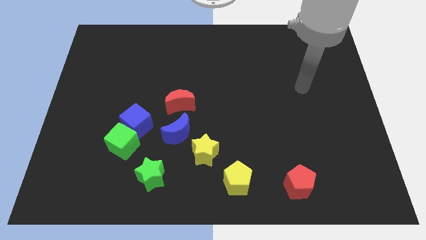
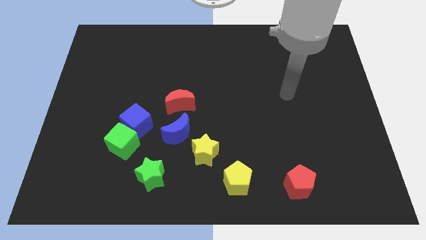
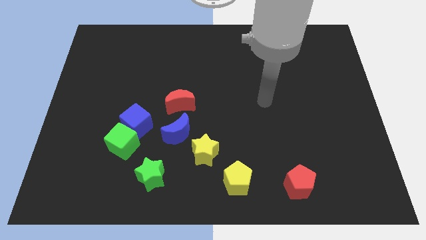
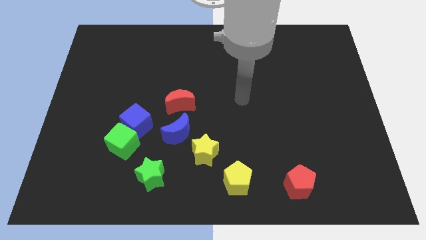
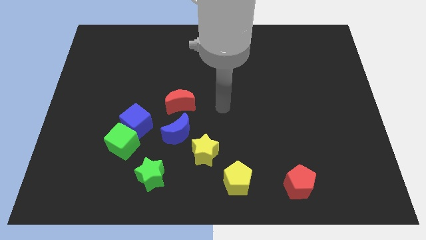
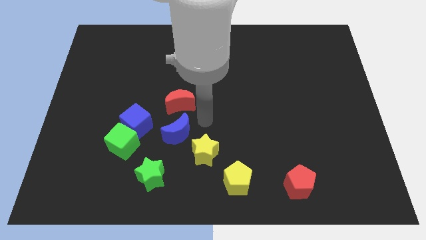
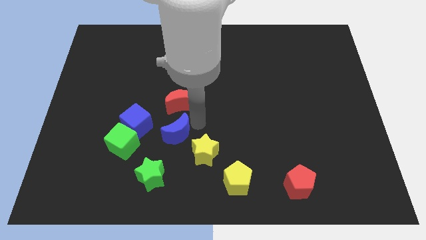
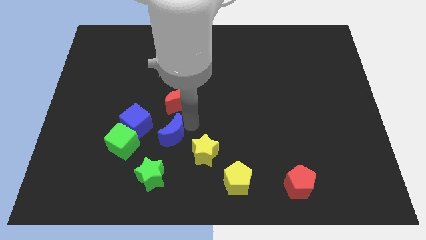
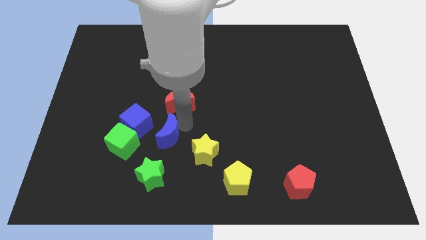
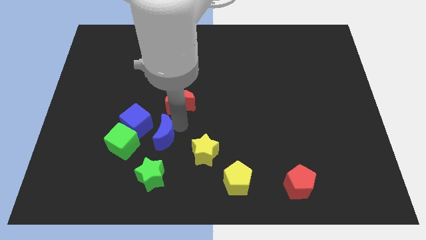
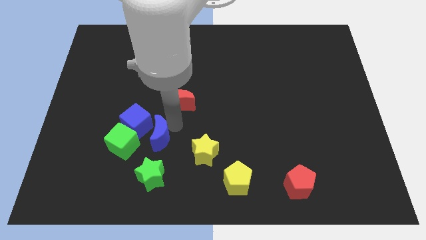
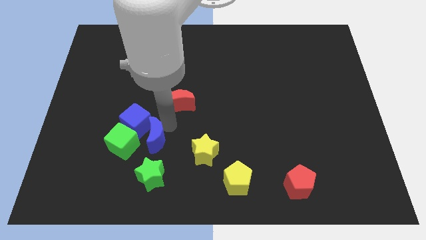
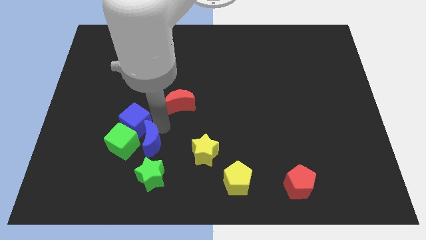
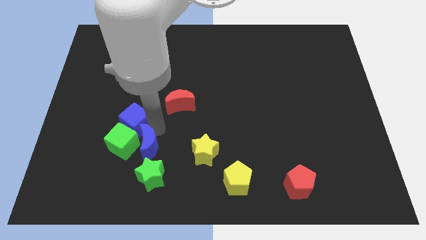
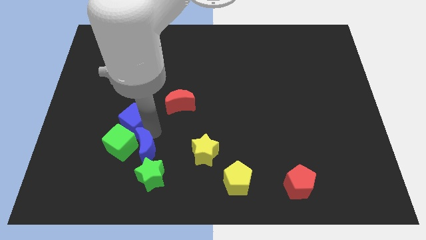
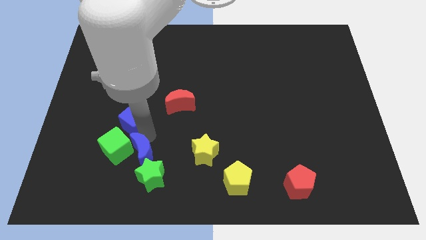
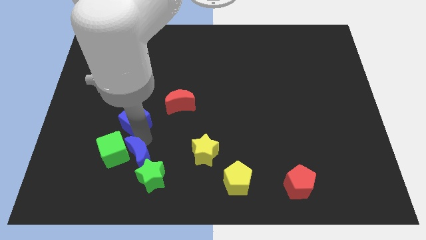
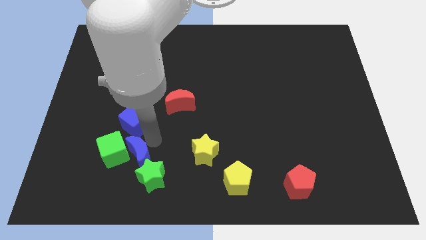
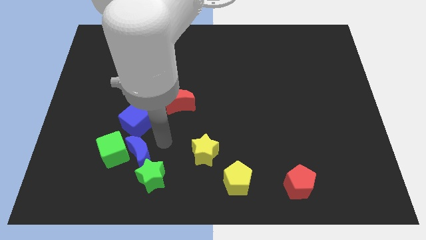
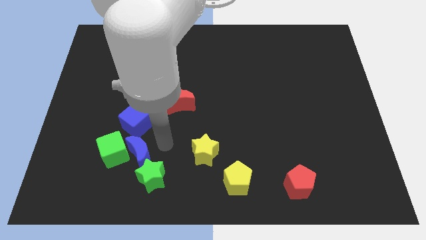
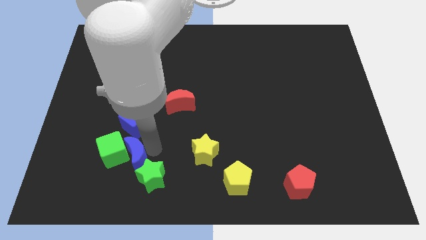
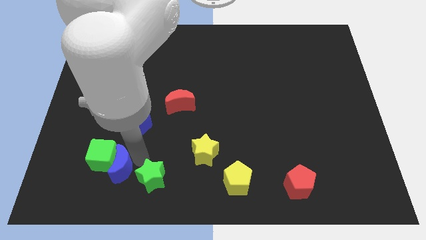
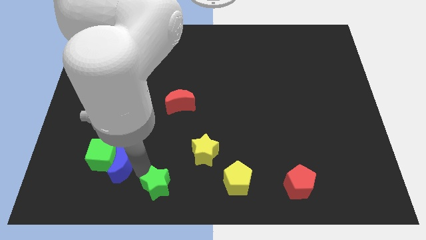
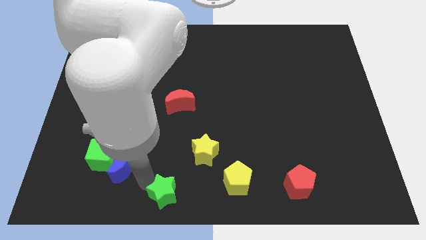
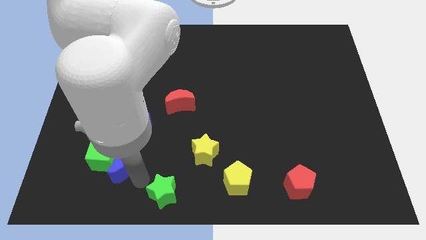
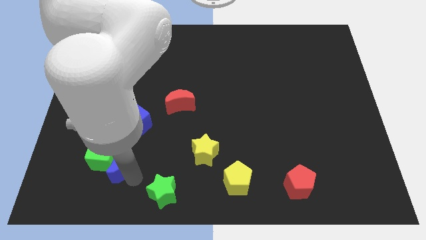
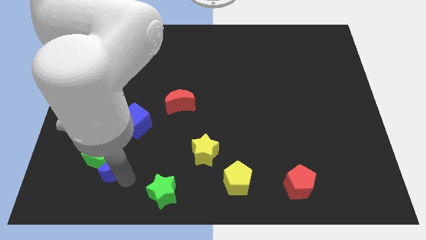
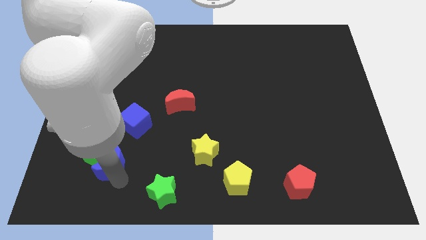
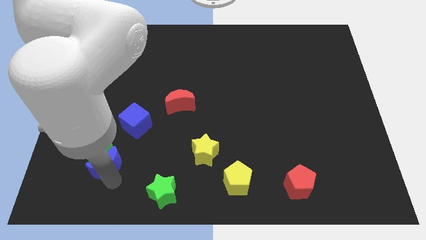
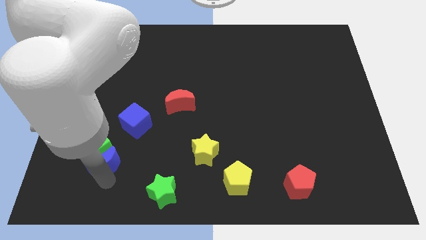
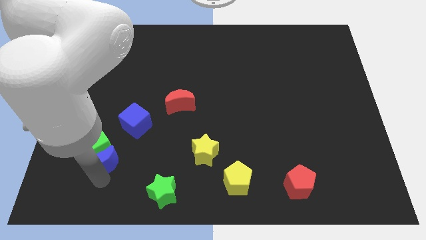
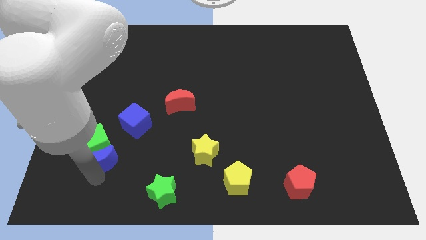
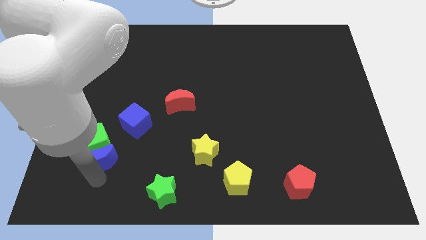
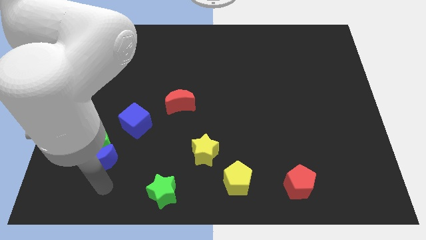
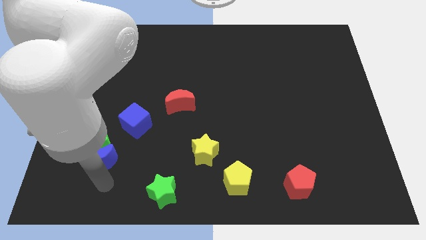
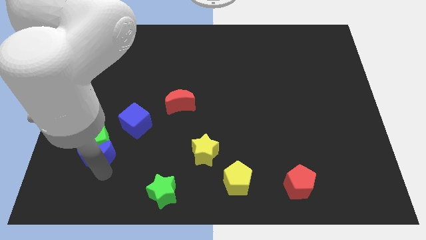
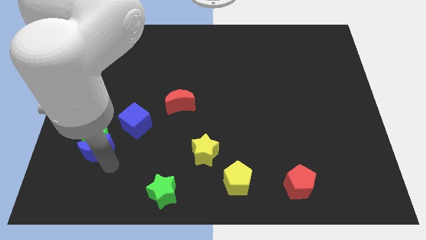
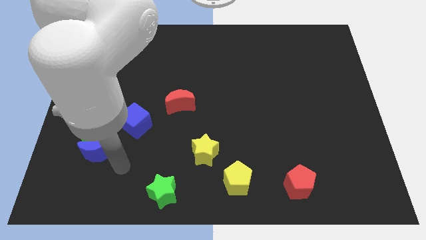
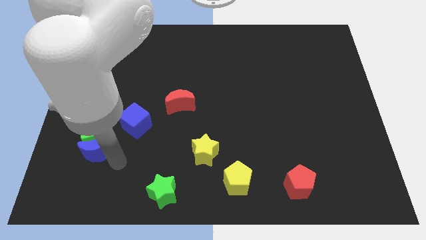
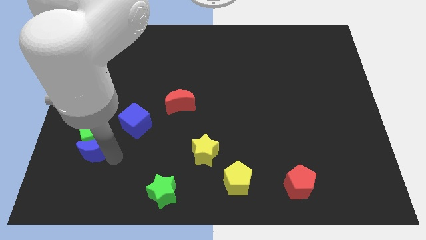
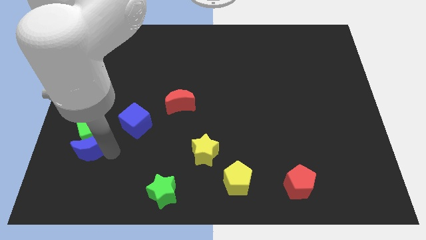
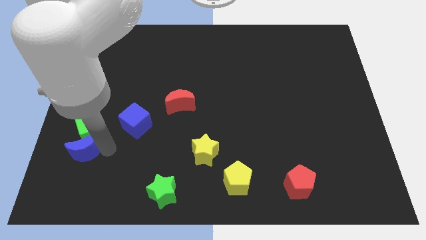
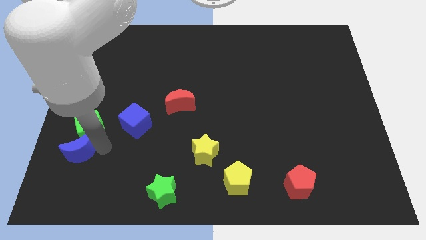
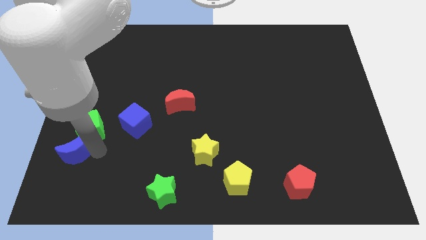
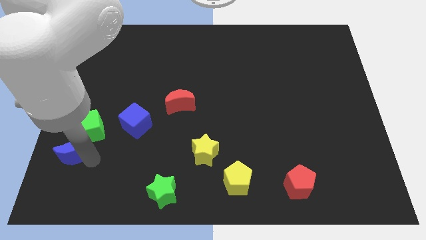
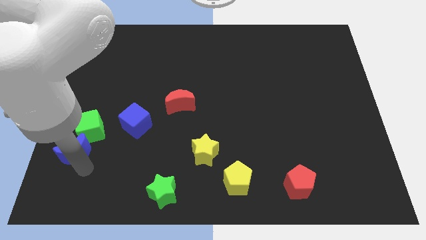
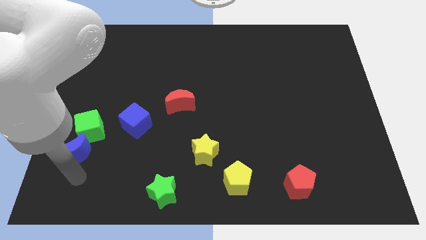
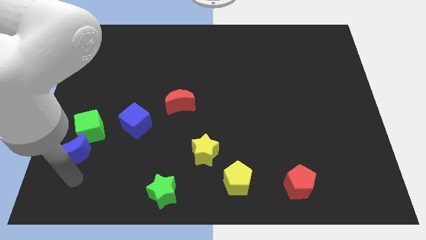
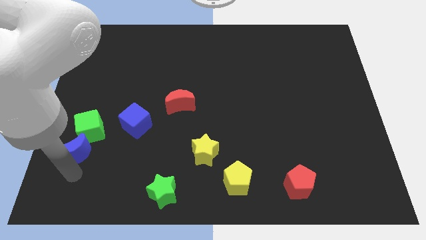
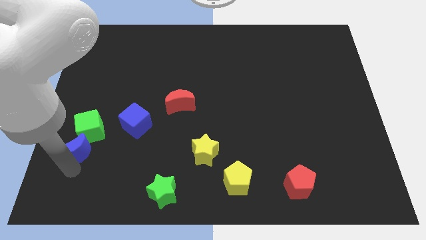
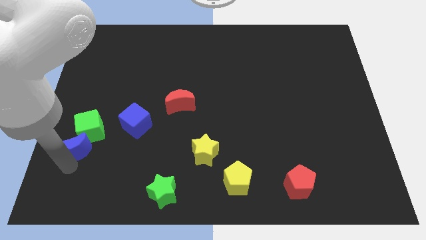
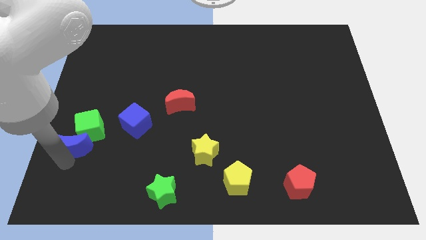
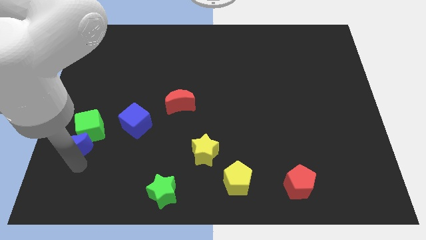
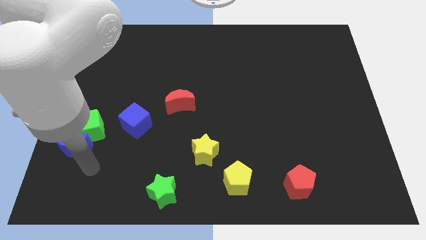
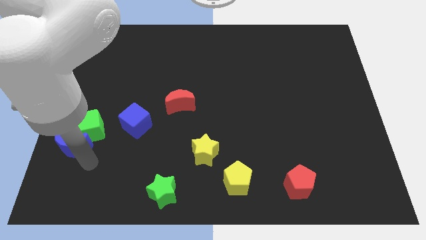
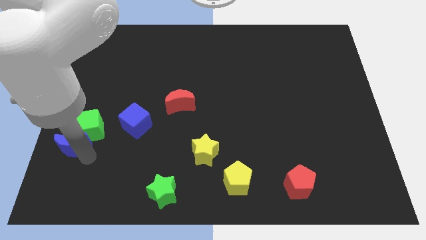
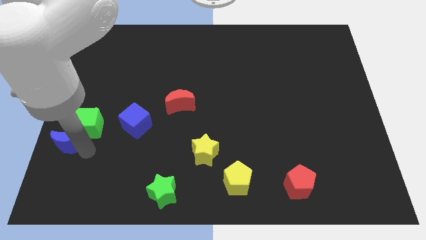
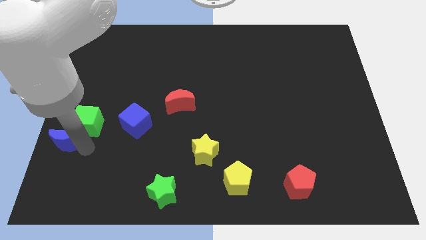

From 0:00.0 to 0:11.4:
push the blue moon to the center left

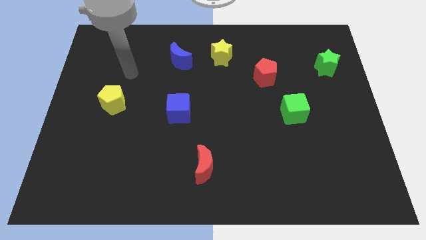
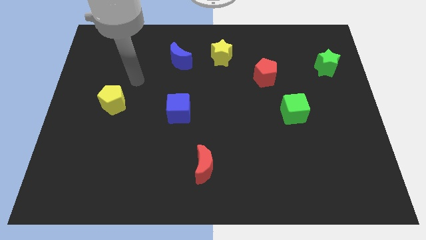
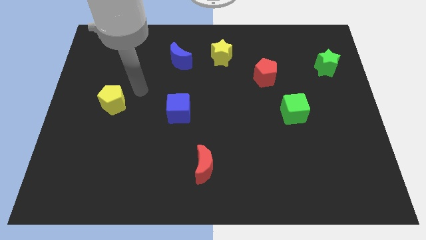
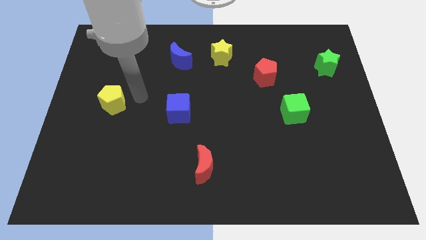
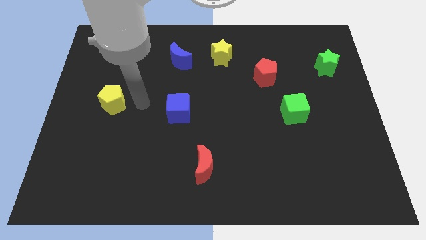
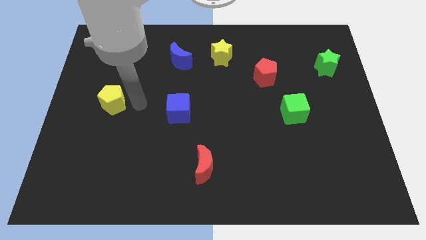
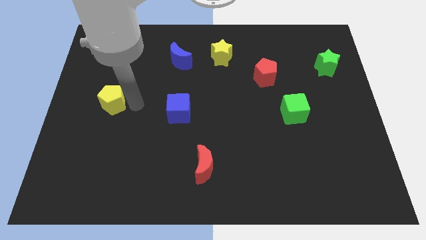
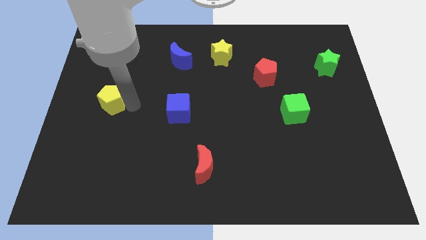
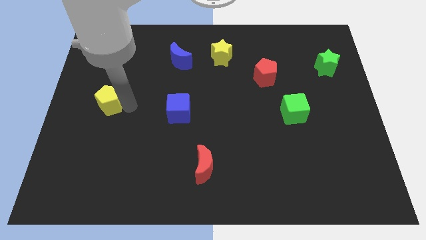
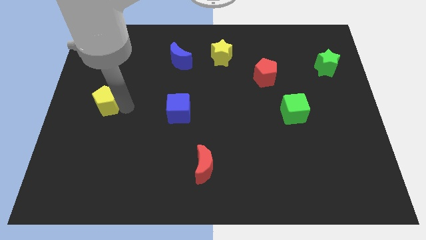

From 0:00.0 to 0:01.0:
put the yellow pentagon to the center left
